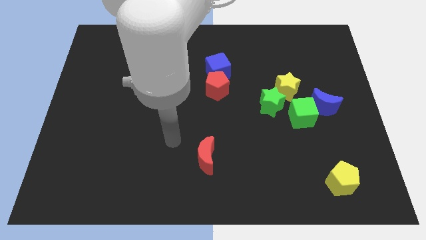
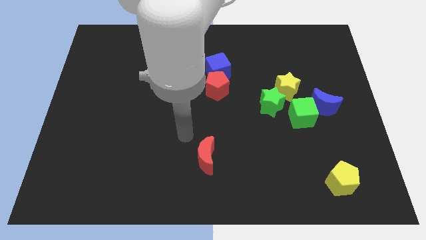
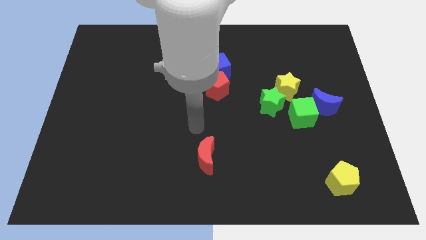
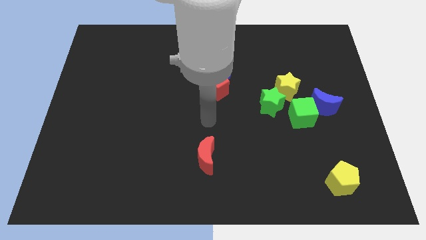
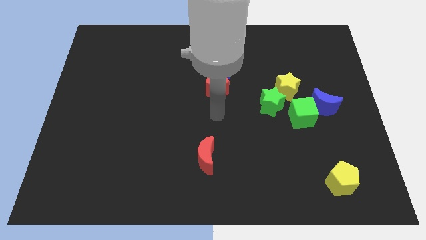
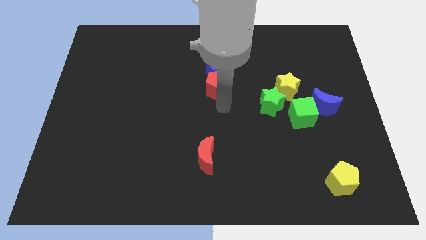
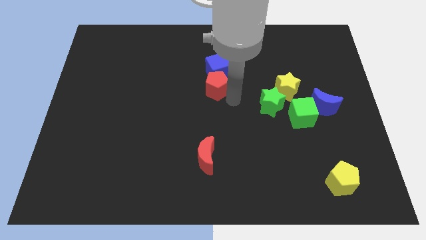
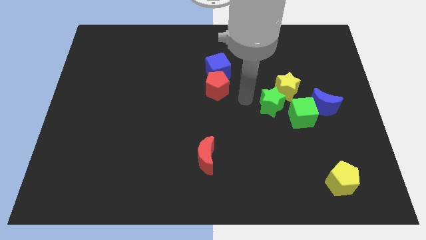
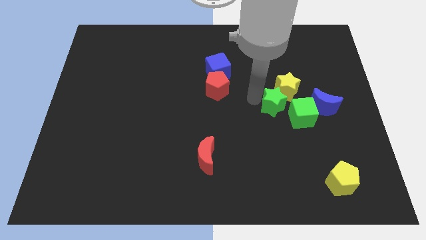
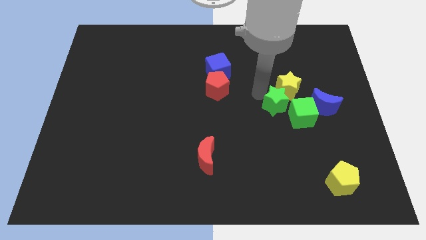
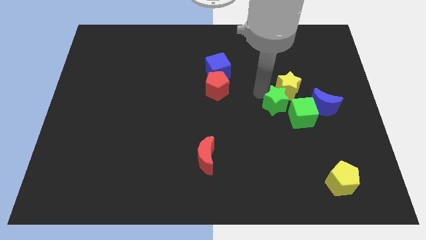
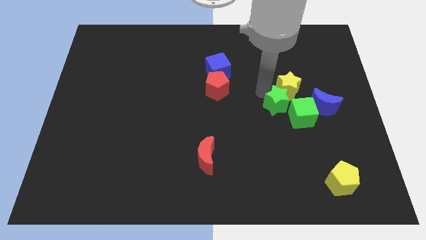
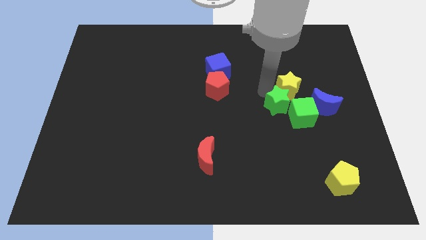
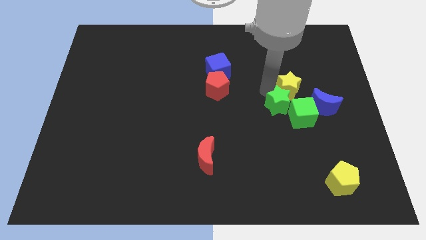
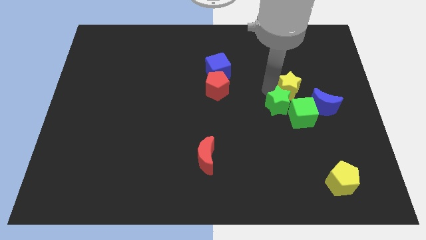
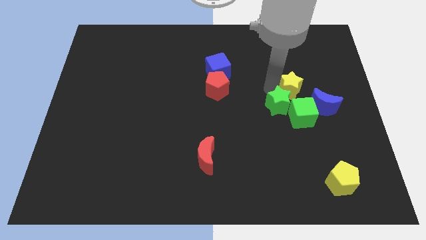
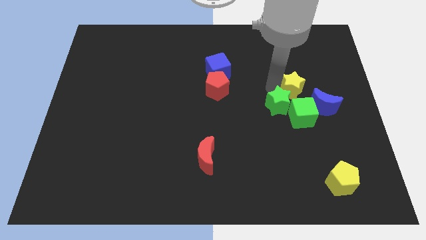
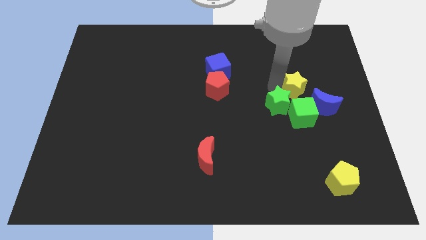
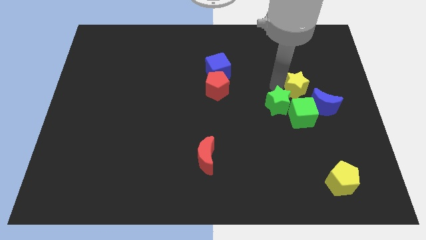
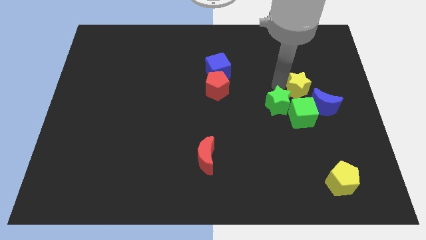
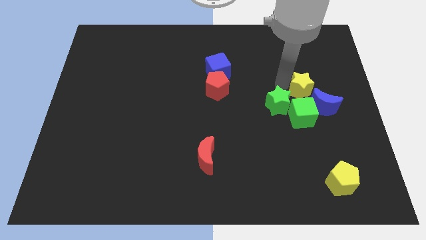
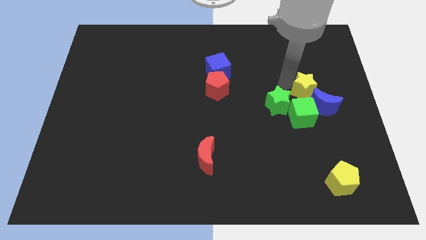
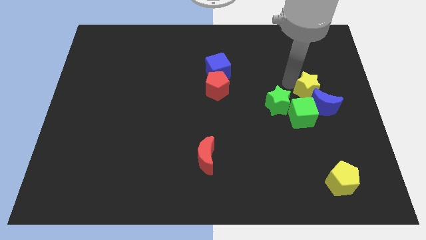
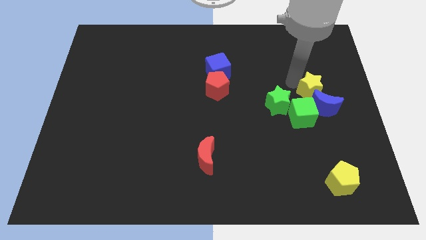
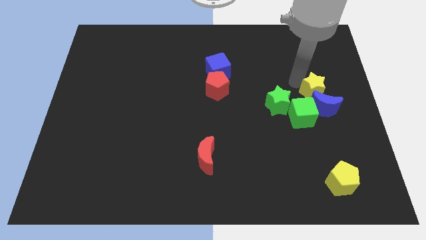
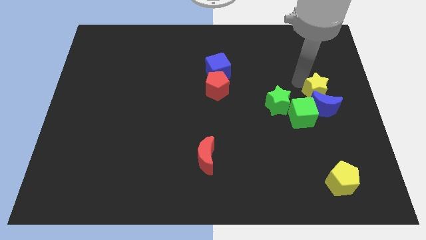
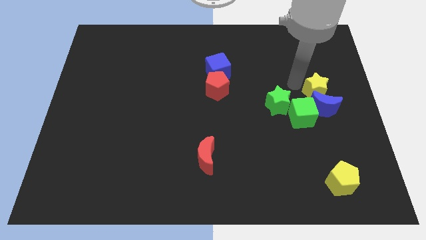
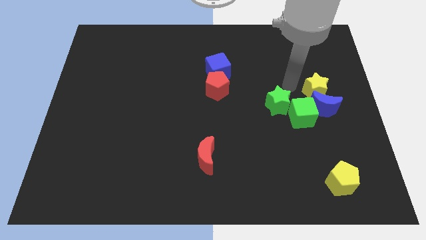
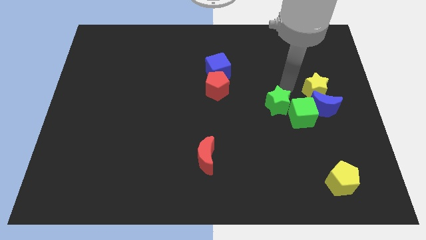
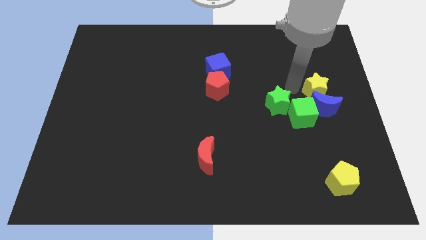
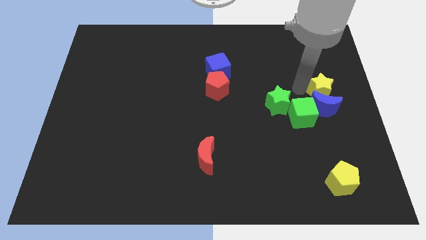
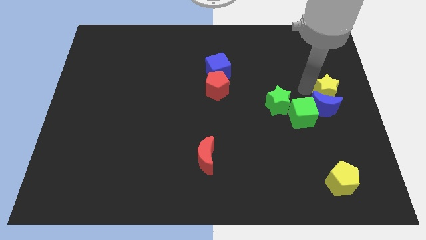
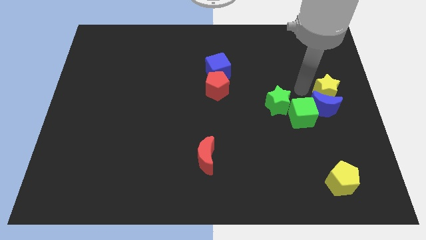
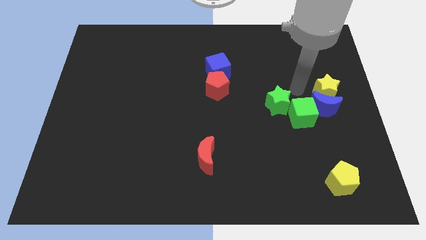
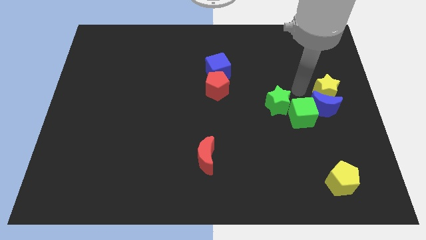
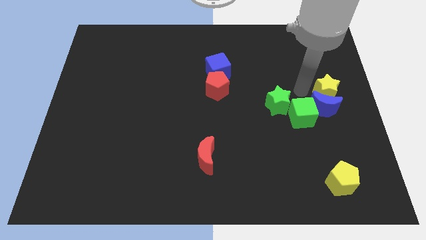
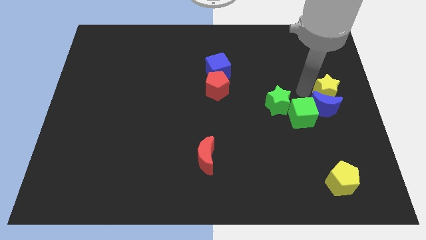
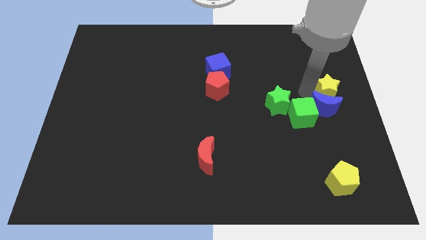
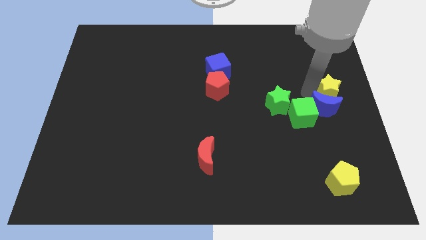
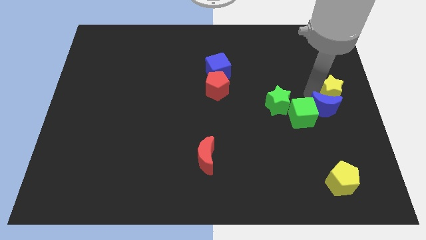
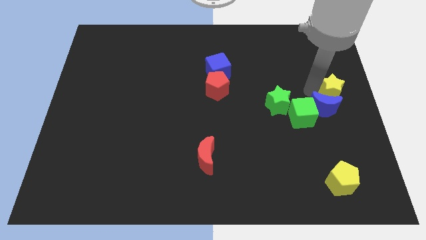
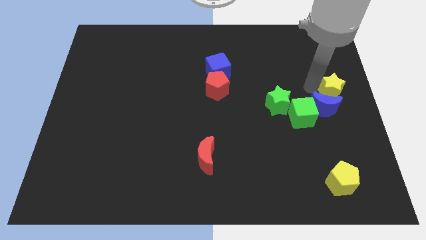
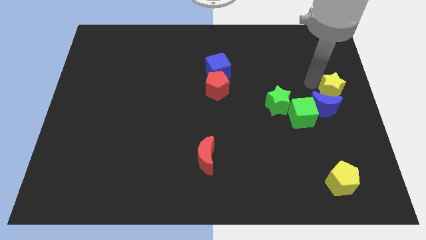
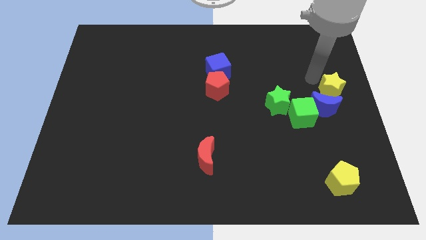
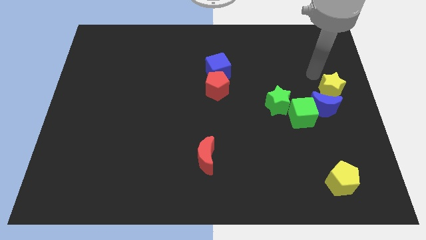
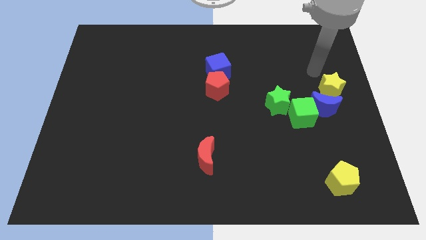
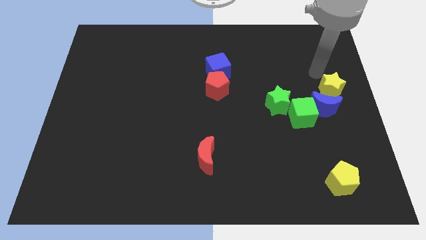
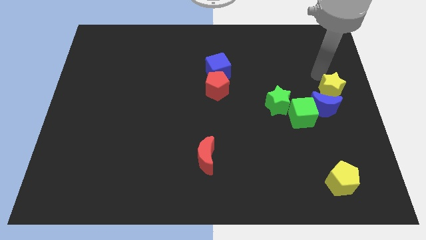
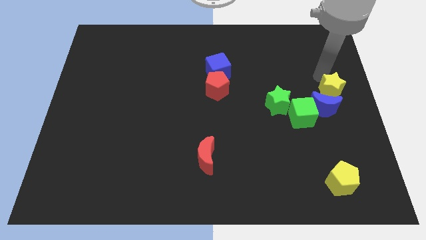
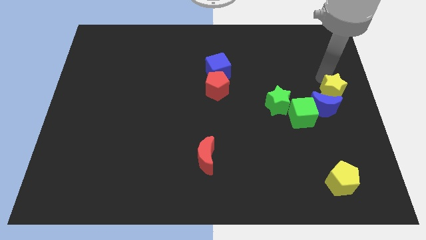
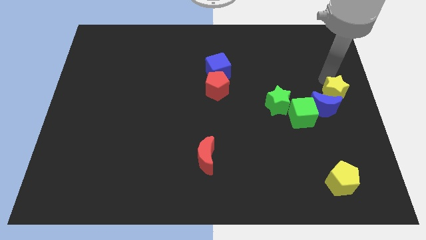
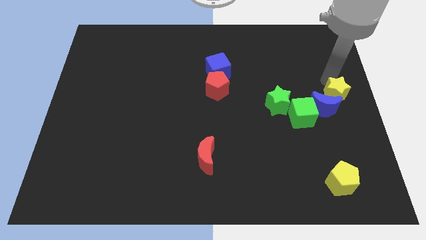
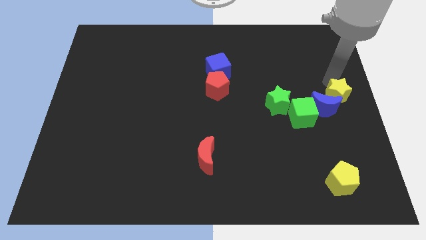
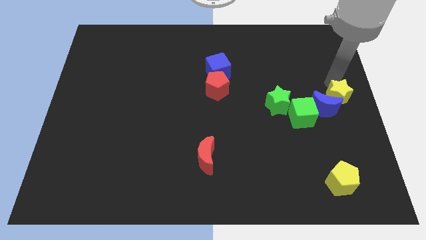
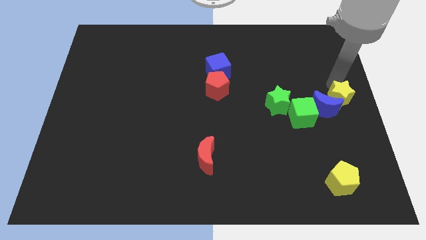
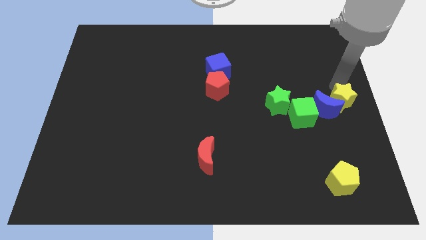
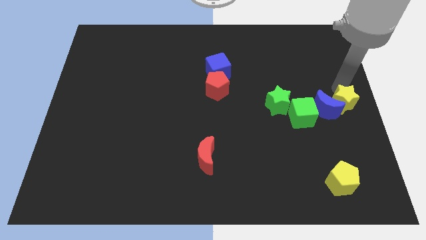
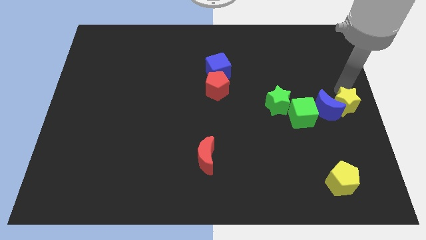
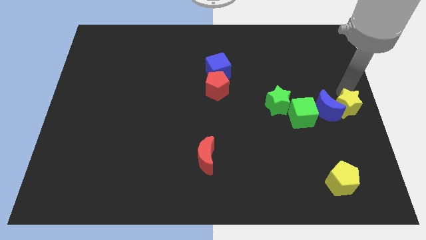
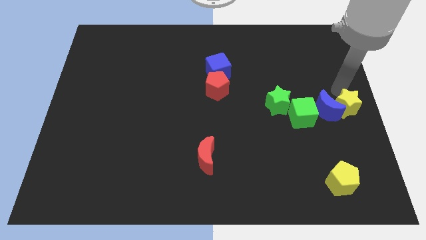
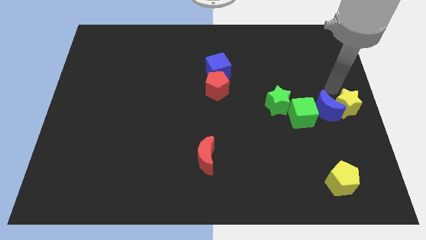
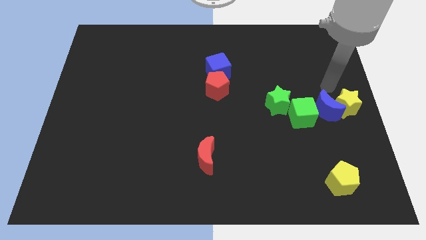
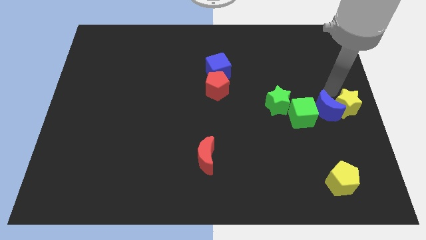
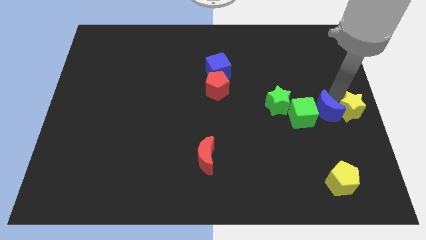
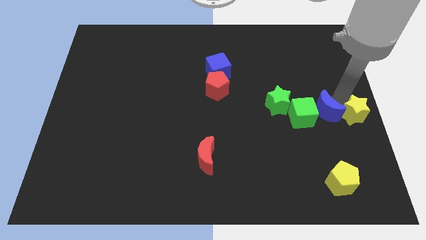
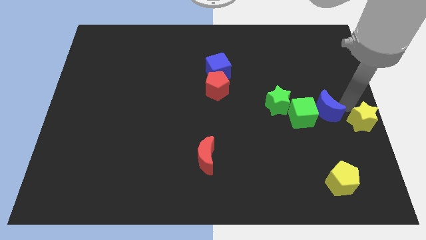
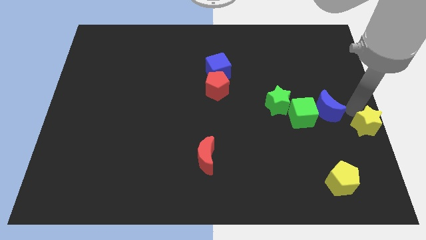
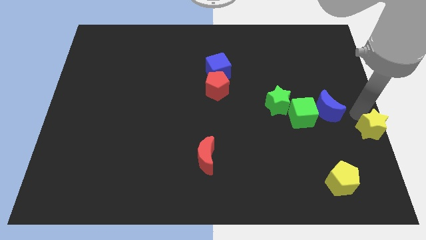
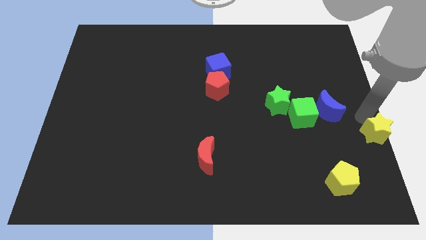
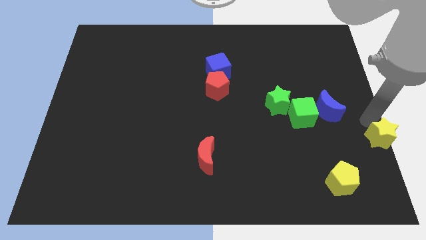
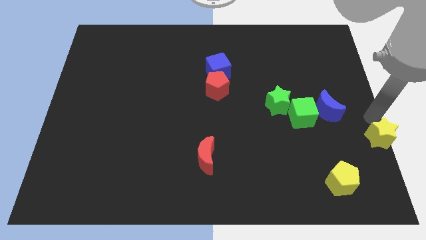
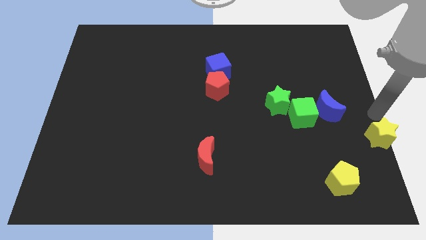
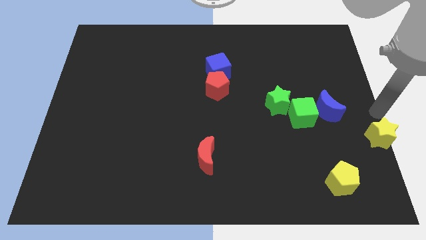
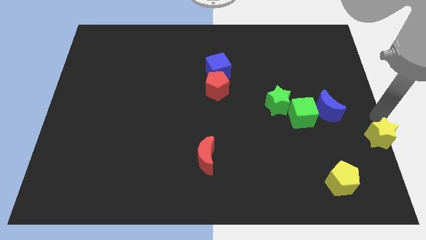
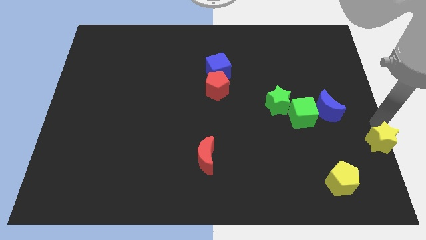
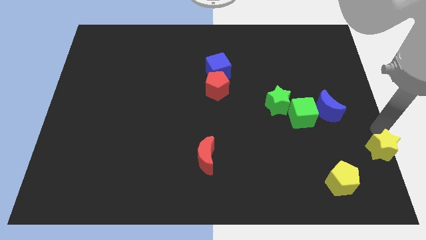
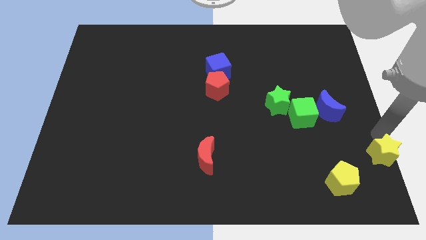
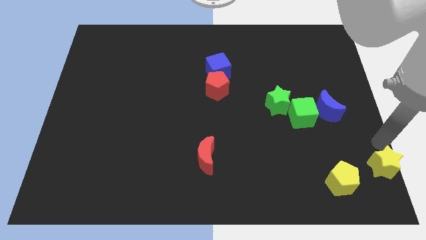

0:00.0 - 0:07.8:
slide the yellow star to the bottom right corner
